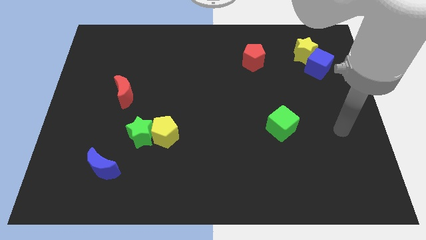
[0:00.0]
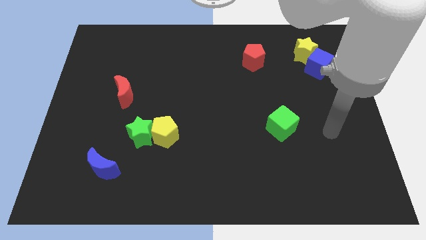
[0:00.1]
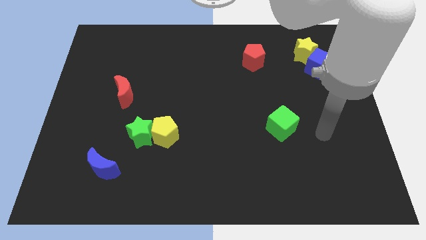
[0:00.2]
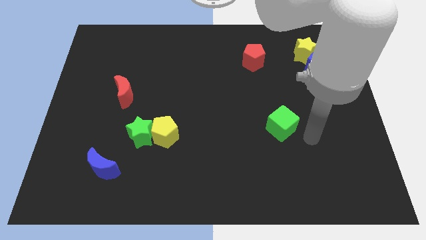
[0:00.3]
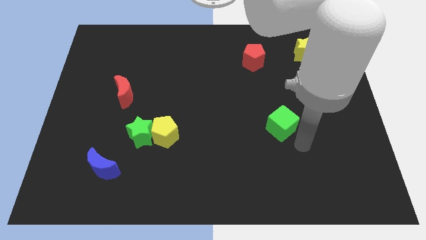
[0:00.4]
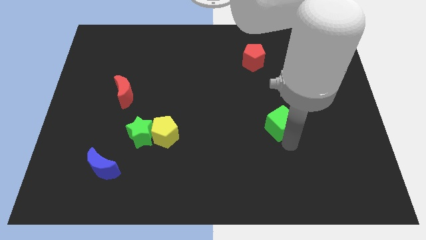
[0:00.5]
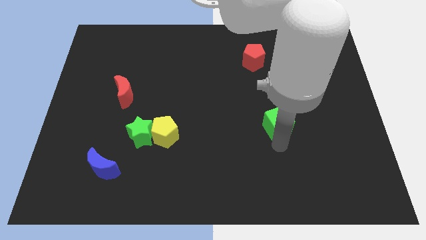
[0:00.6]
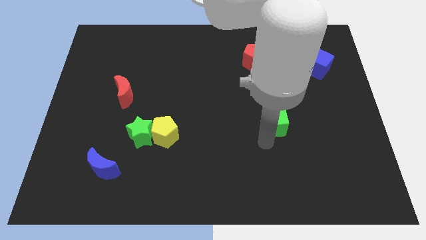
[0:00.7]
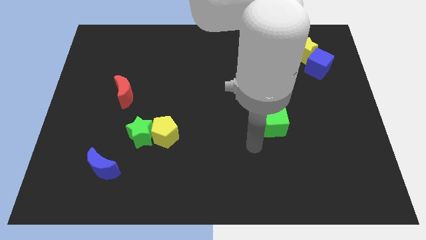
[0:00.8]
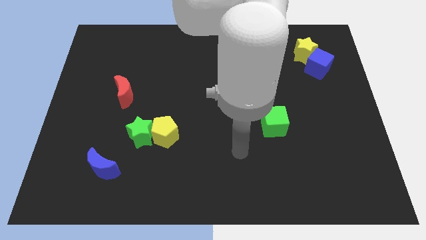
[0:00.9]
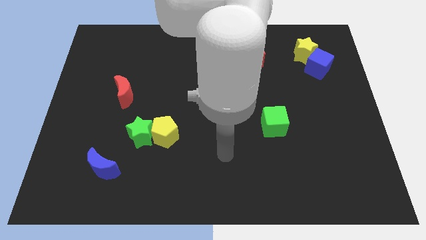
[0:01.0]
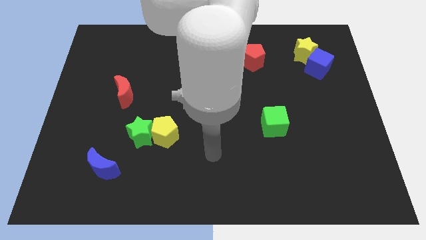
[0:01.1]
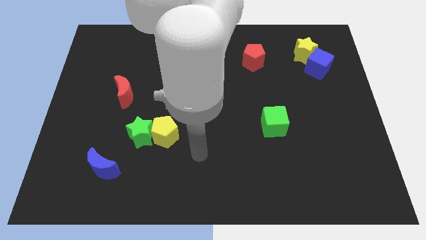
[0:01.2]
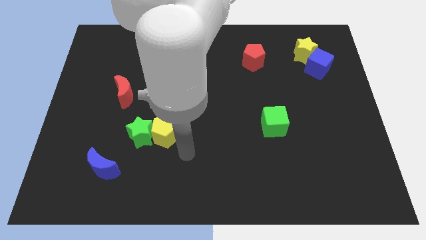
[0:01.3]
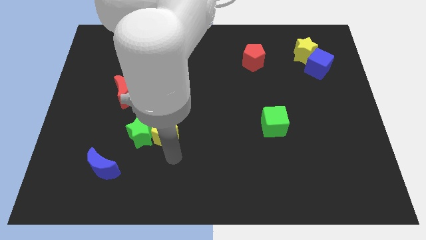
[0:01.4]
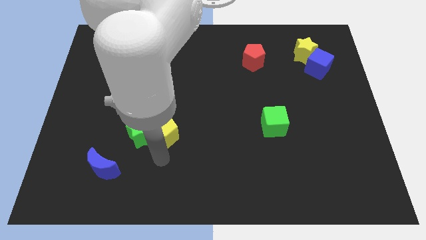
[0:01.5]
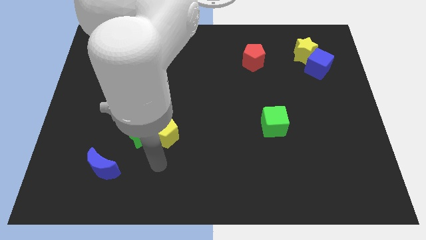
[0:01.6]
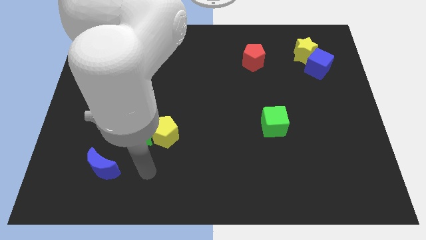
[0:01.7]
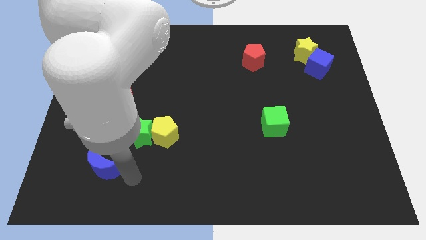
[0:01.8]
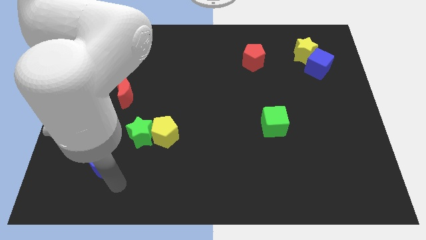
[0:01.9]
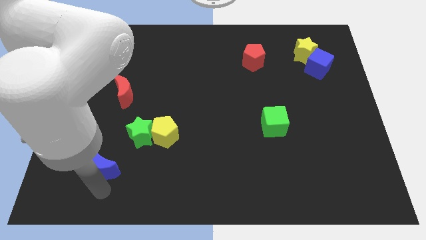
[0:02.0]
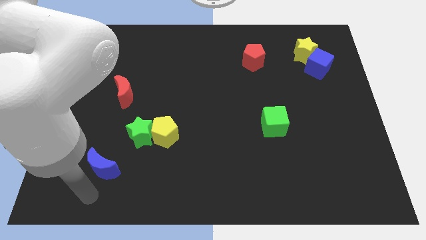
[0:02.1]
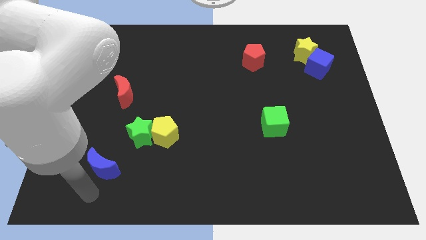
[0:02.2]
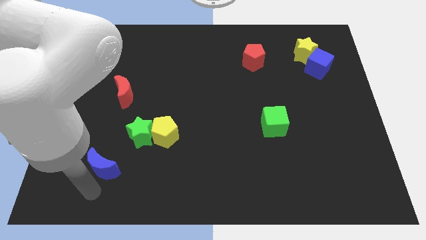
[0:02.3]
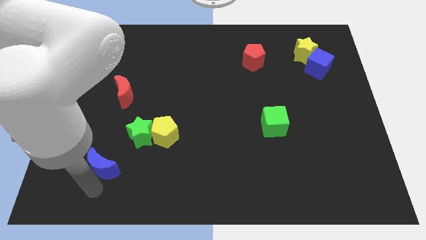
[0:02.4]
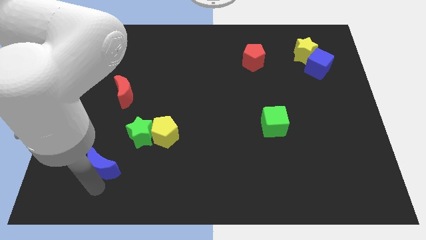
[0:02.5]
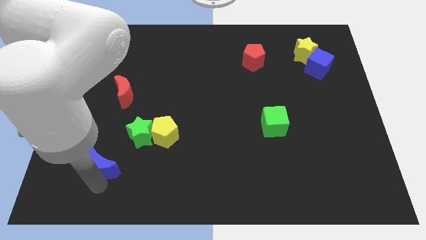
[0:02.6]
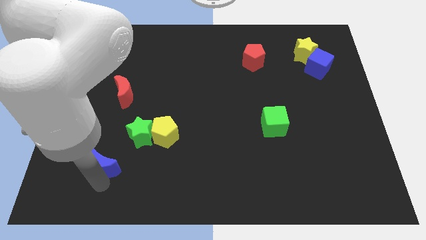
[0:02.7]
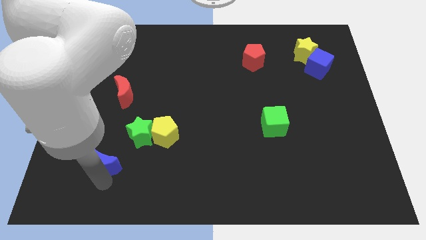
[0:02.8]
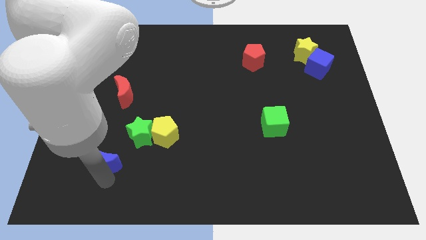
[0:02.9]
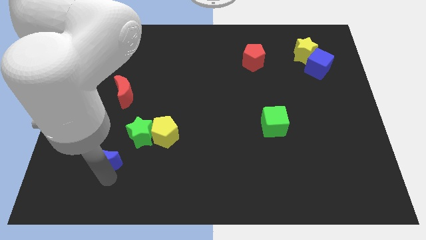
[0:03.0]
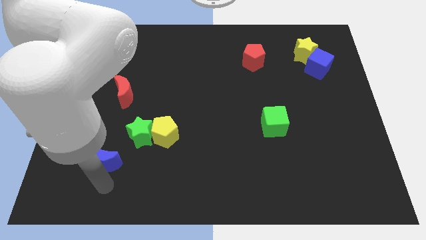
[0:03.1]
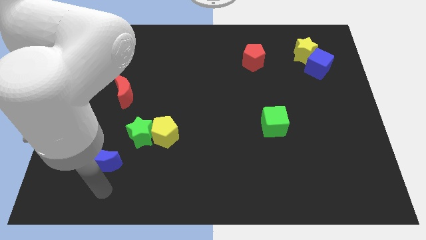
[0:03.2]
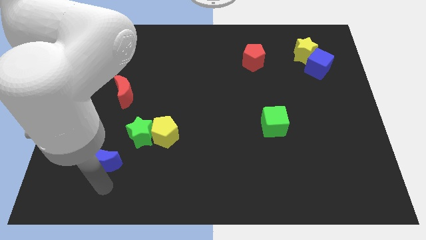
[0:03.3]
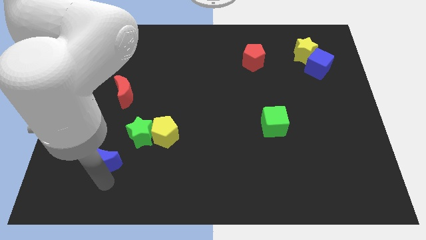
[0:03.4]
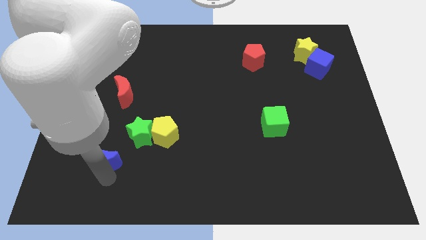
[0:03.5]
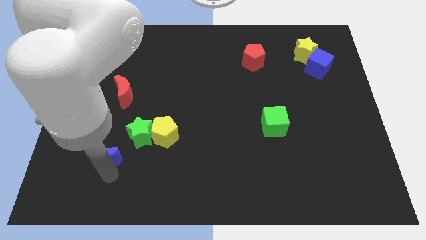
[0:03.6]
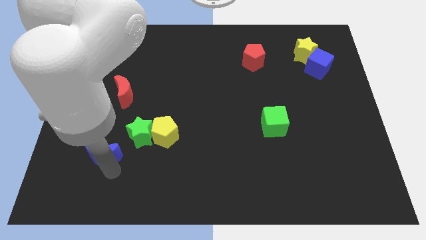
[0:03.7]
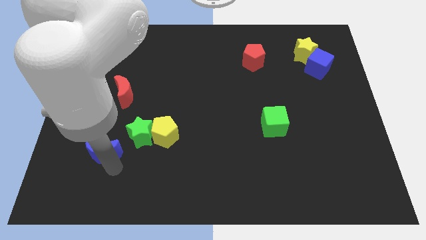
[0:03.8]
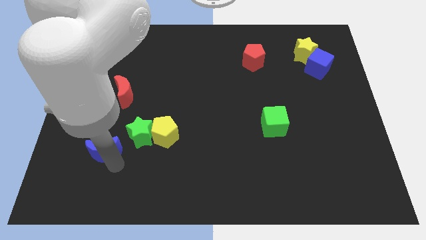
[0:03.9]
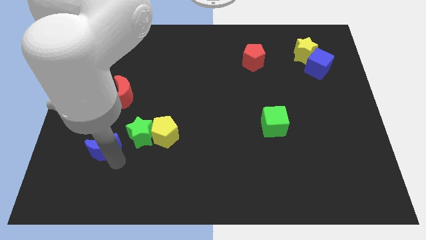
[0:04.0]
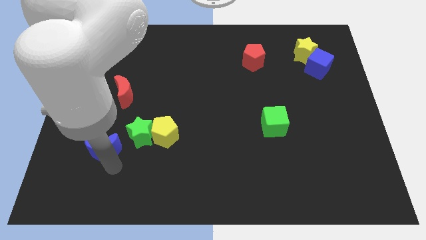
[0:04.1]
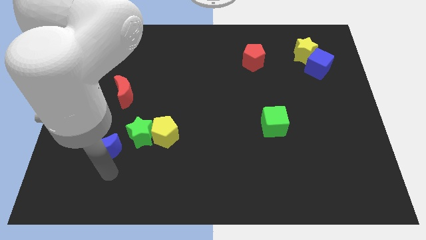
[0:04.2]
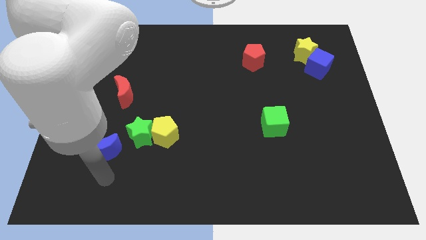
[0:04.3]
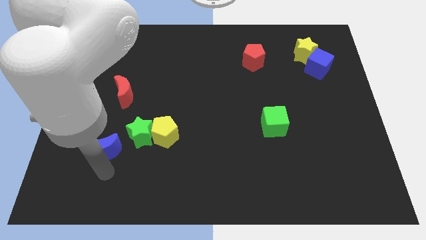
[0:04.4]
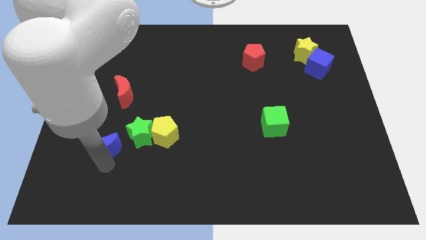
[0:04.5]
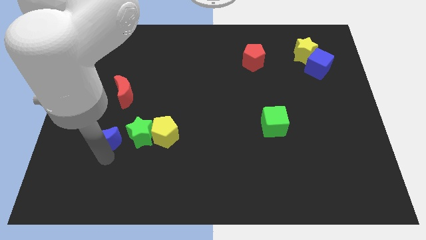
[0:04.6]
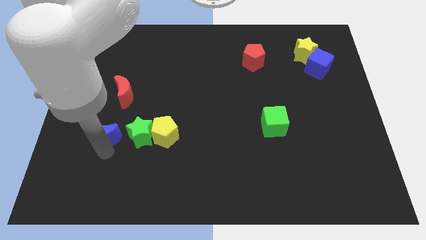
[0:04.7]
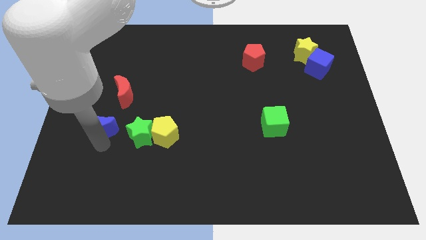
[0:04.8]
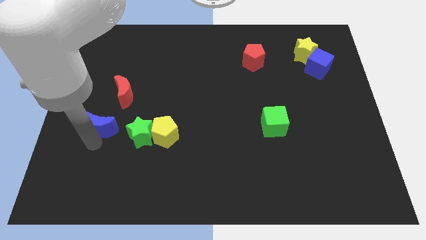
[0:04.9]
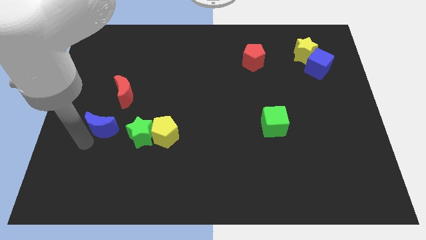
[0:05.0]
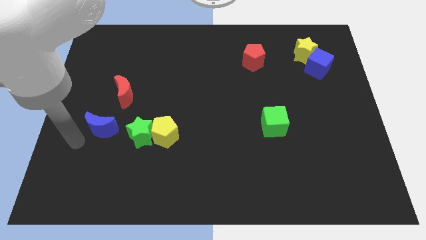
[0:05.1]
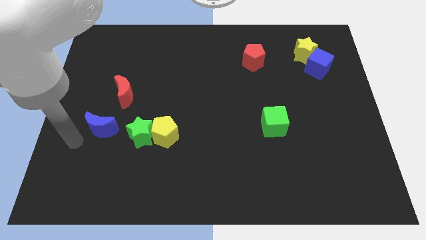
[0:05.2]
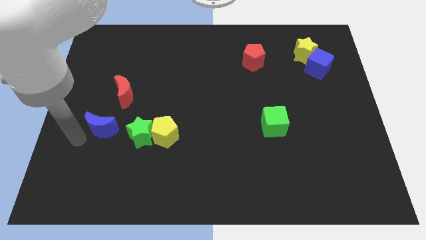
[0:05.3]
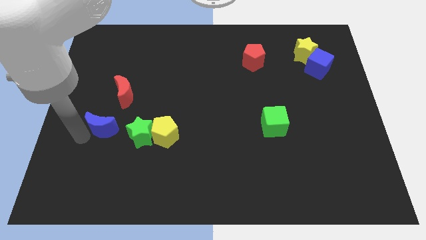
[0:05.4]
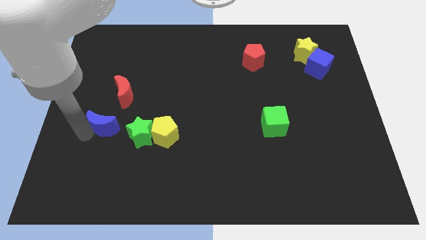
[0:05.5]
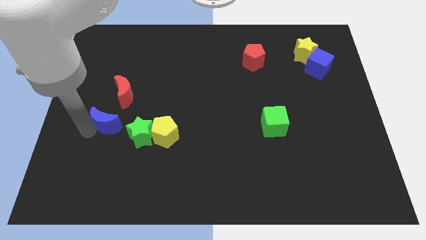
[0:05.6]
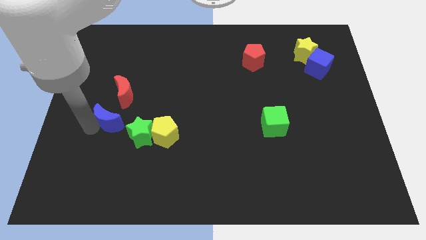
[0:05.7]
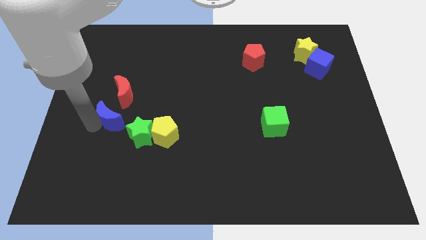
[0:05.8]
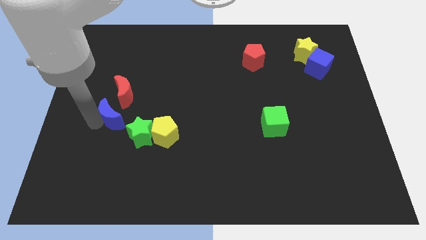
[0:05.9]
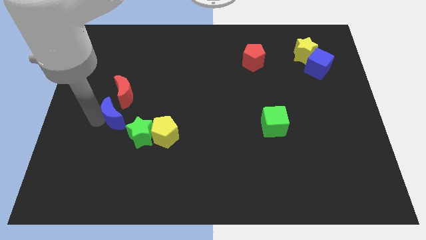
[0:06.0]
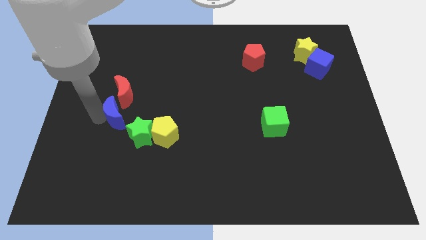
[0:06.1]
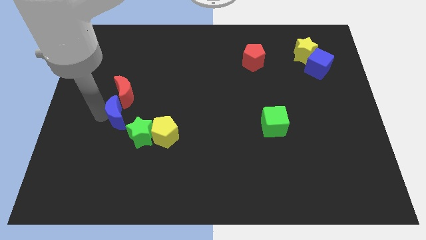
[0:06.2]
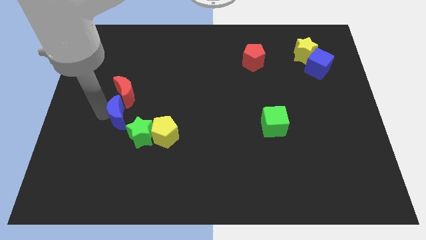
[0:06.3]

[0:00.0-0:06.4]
slide the blue moon upwards and to the right slightly

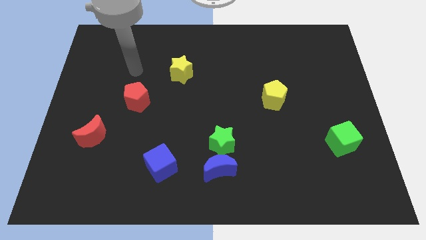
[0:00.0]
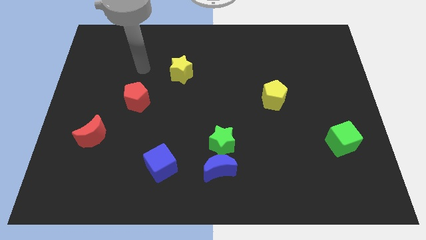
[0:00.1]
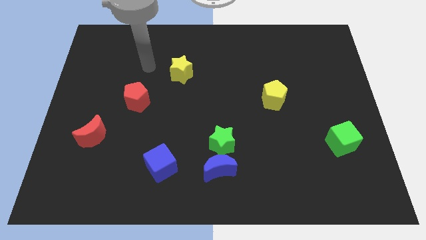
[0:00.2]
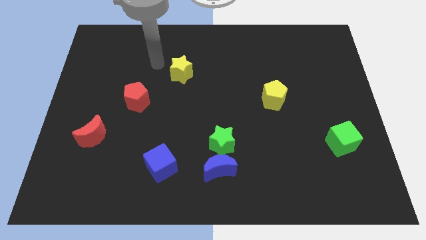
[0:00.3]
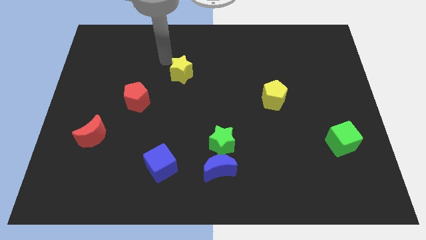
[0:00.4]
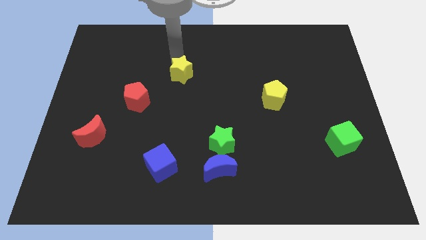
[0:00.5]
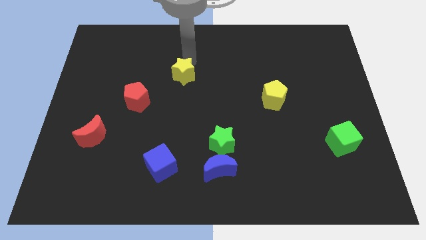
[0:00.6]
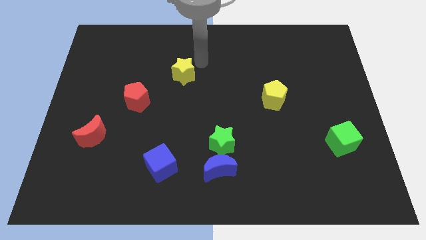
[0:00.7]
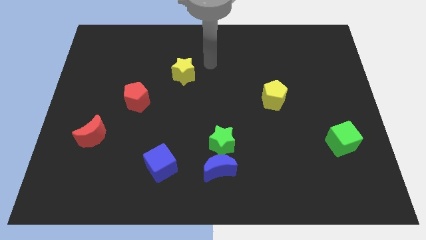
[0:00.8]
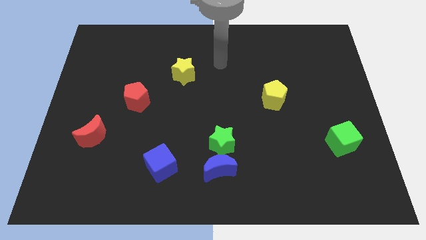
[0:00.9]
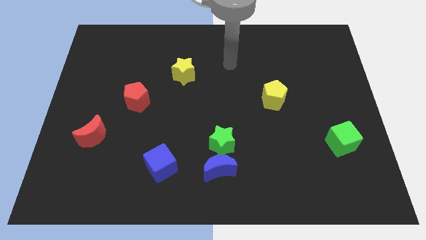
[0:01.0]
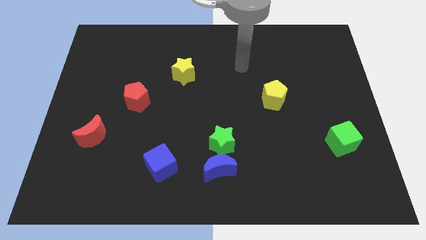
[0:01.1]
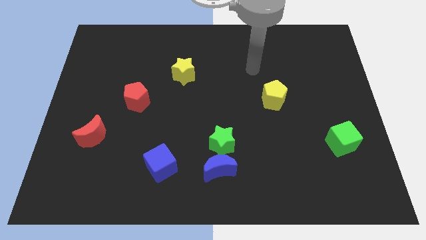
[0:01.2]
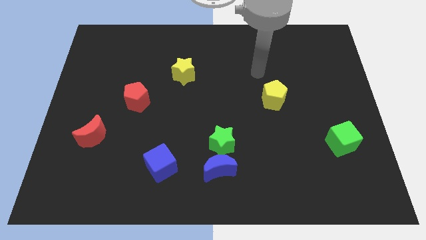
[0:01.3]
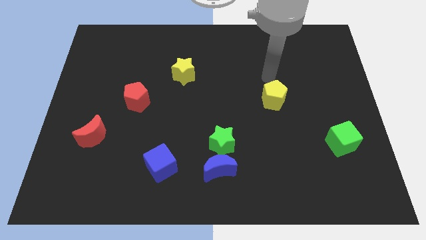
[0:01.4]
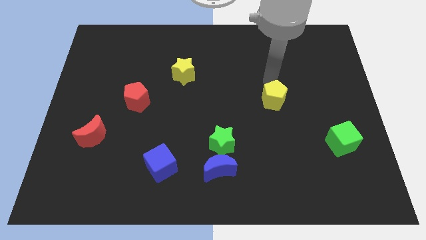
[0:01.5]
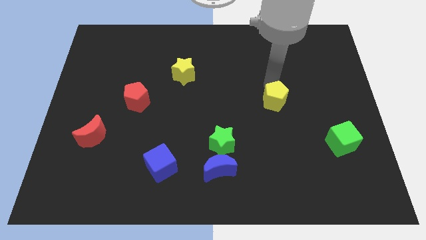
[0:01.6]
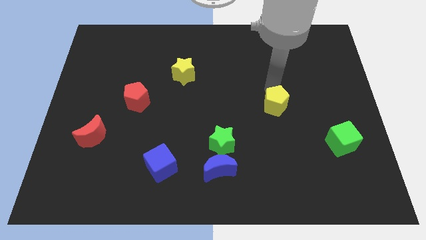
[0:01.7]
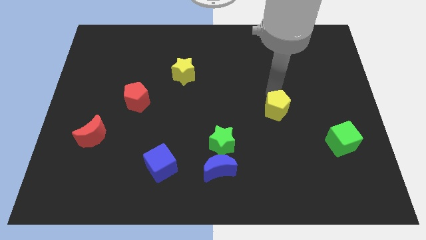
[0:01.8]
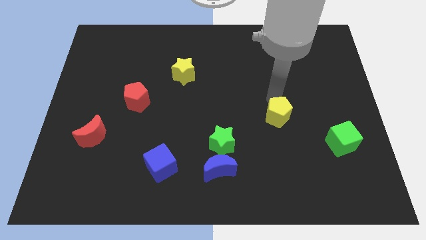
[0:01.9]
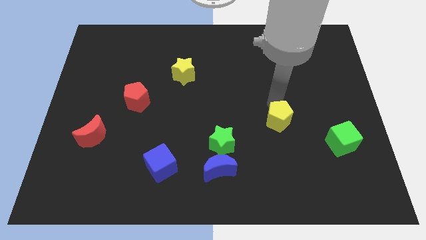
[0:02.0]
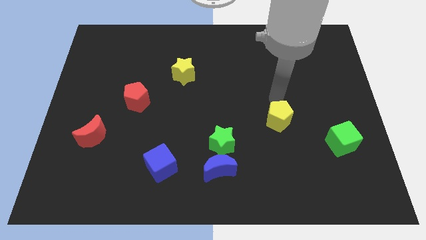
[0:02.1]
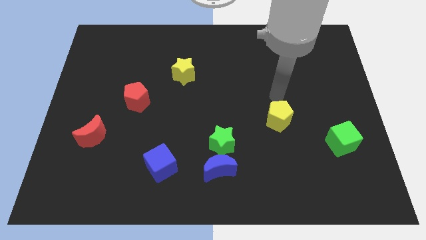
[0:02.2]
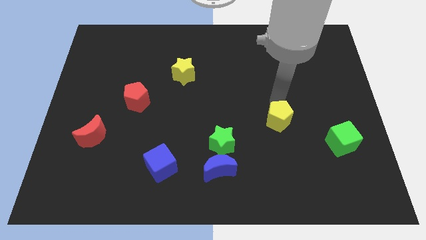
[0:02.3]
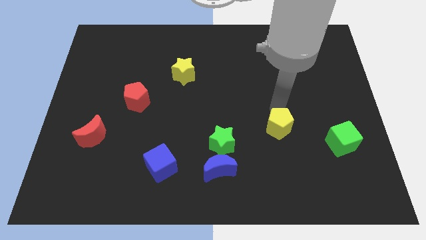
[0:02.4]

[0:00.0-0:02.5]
slightly slide the yellow pentagon downwards
